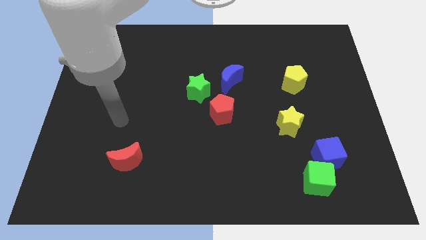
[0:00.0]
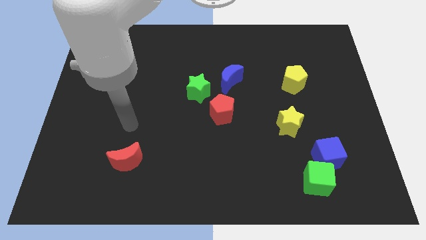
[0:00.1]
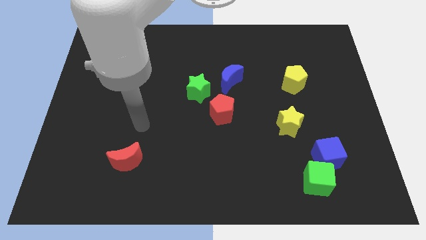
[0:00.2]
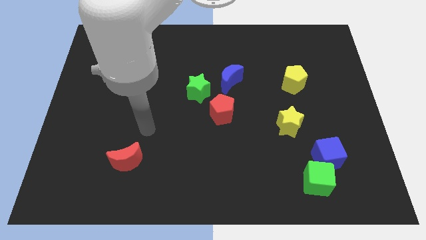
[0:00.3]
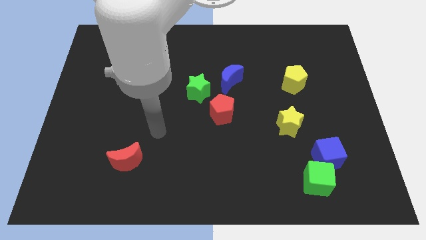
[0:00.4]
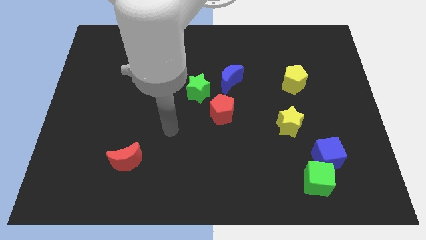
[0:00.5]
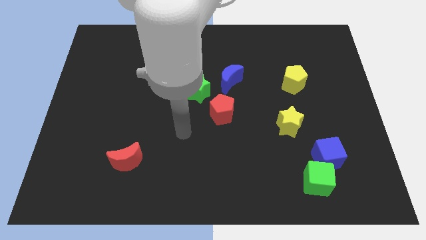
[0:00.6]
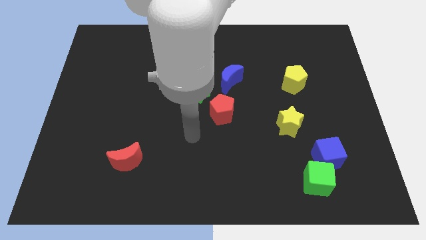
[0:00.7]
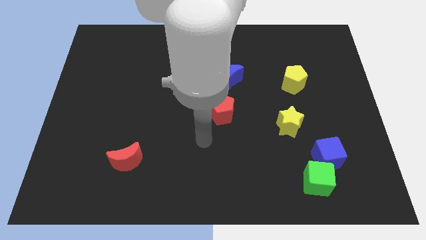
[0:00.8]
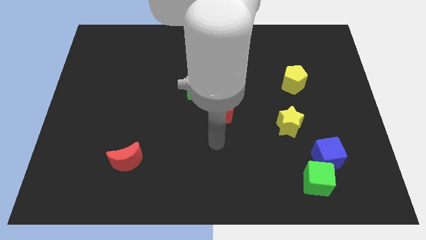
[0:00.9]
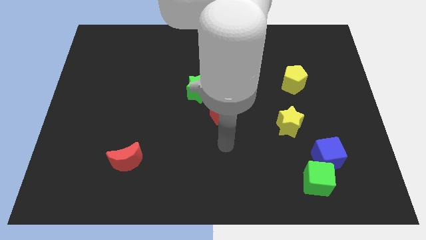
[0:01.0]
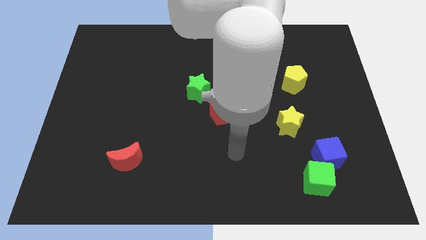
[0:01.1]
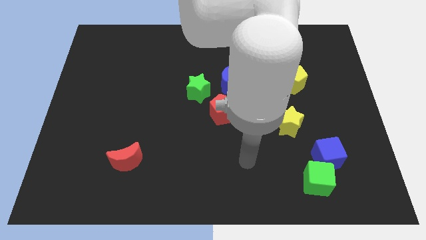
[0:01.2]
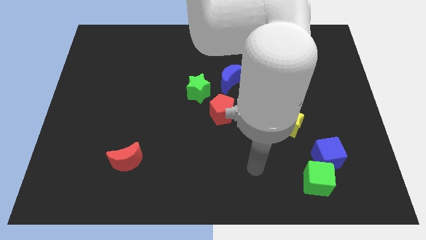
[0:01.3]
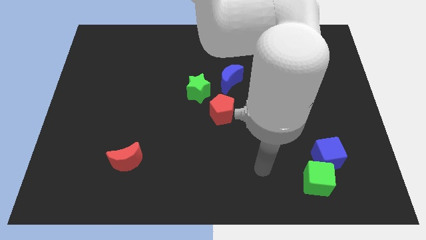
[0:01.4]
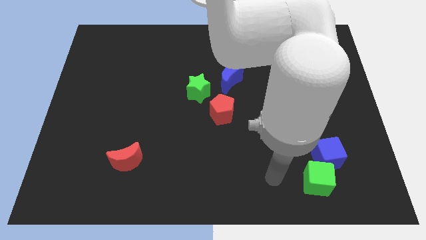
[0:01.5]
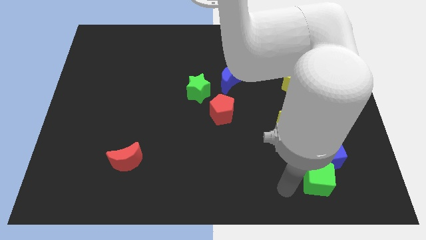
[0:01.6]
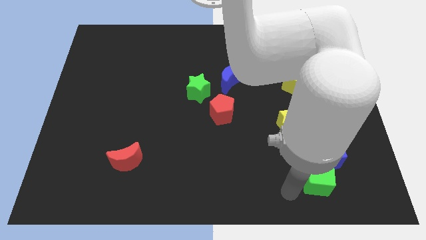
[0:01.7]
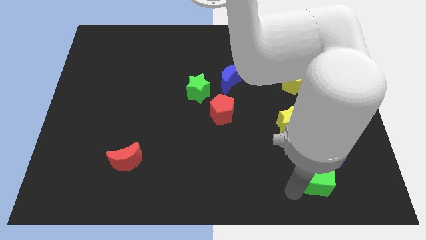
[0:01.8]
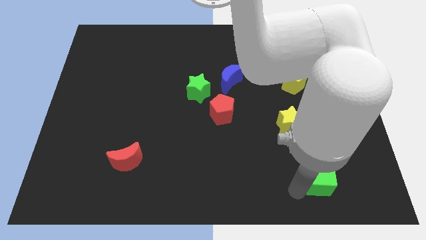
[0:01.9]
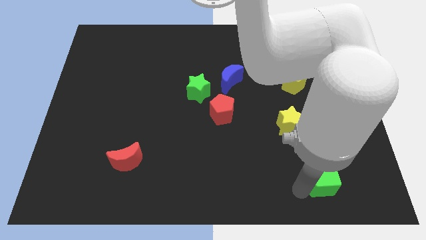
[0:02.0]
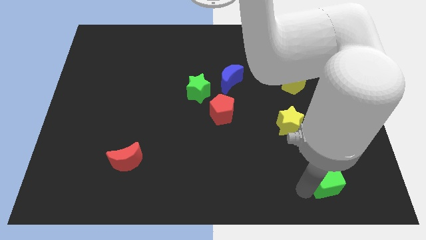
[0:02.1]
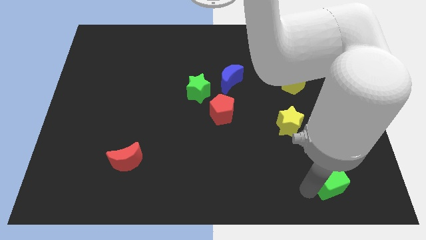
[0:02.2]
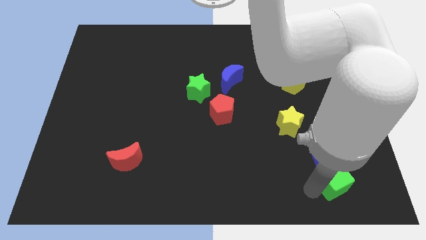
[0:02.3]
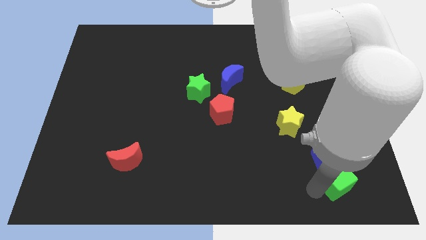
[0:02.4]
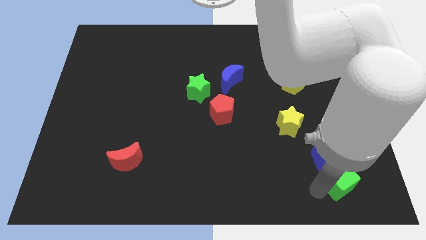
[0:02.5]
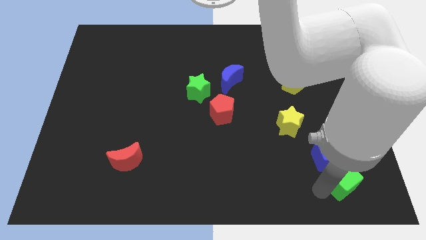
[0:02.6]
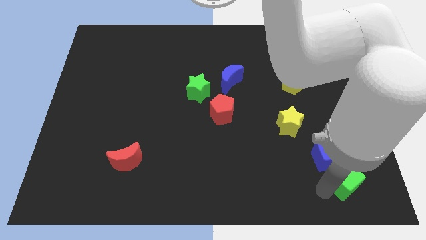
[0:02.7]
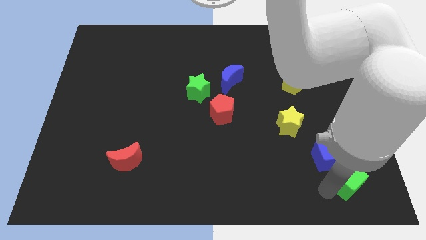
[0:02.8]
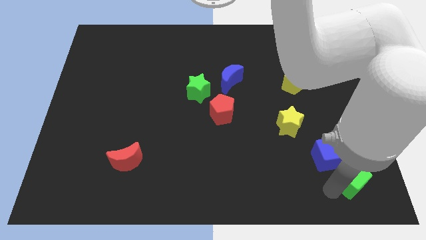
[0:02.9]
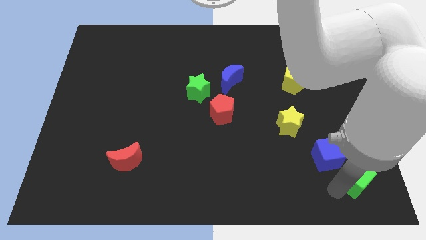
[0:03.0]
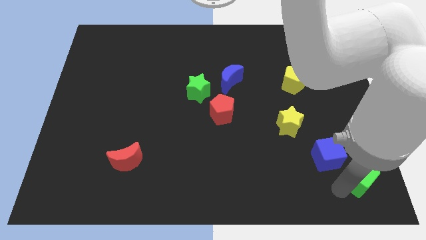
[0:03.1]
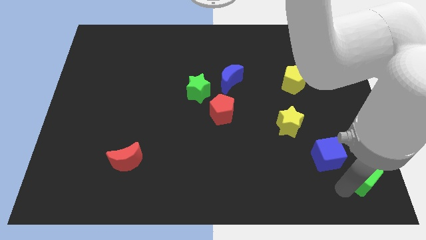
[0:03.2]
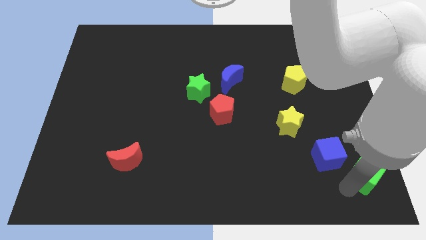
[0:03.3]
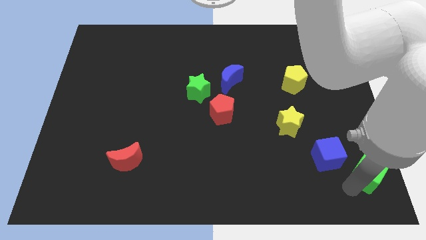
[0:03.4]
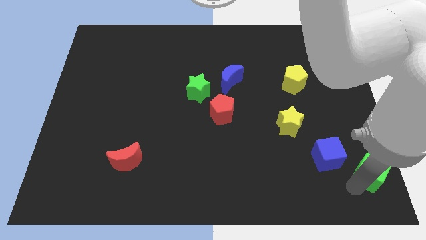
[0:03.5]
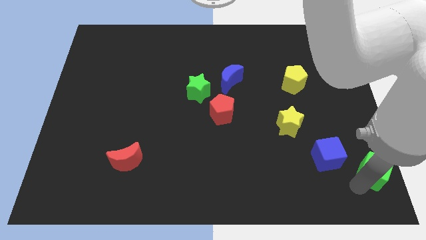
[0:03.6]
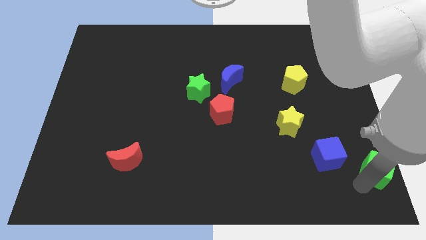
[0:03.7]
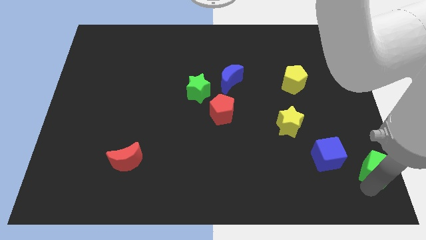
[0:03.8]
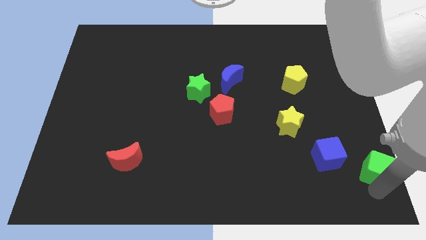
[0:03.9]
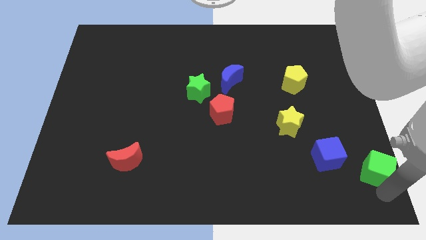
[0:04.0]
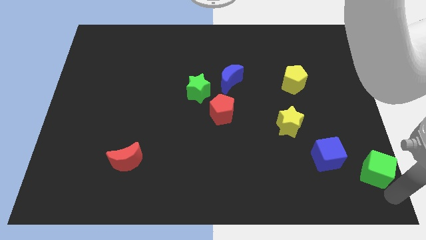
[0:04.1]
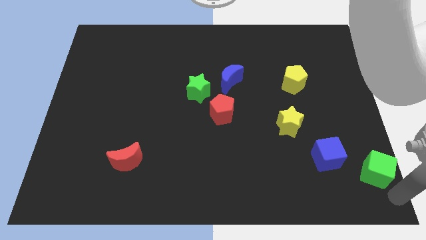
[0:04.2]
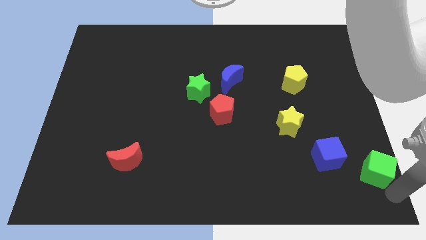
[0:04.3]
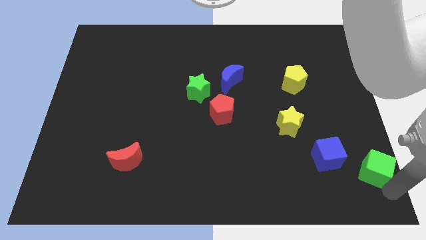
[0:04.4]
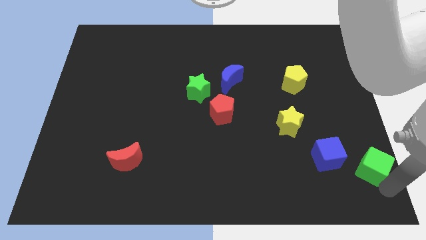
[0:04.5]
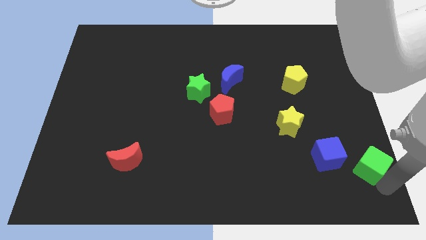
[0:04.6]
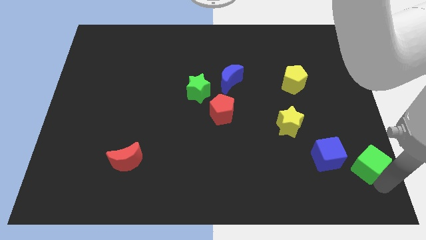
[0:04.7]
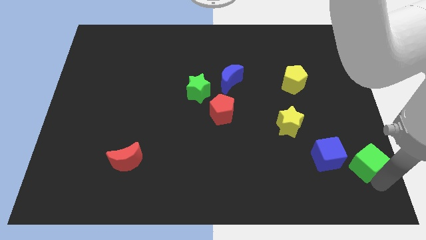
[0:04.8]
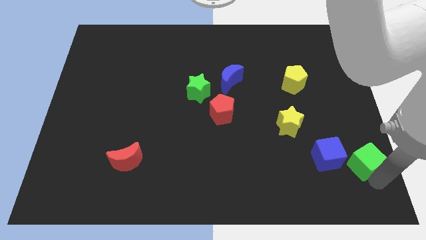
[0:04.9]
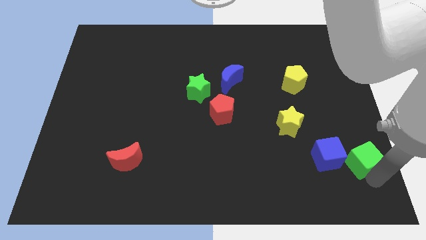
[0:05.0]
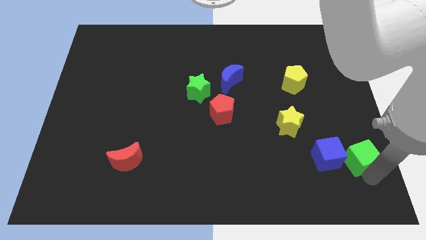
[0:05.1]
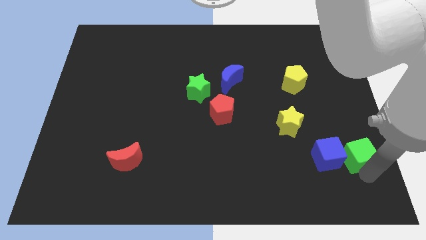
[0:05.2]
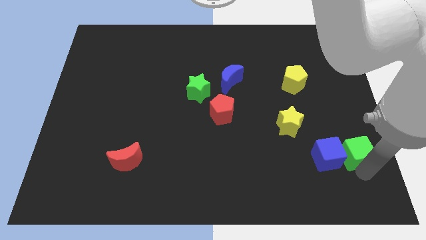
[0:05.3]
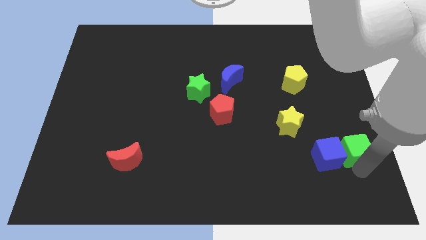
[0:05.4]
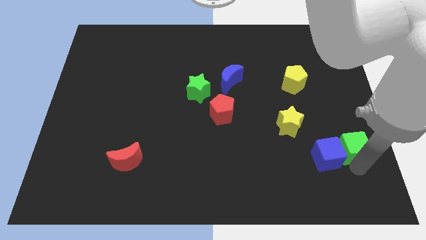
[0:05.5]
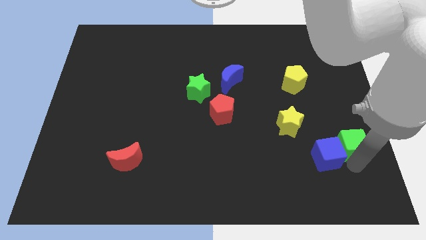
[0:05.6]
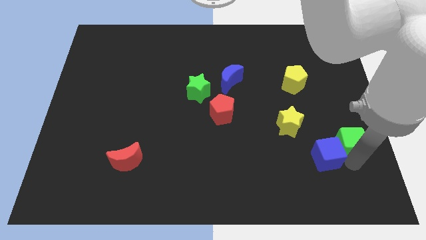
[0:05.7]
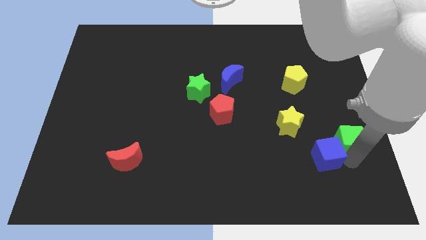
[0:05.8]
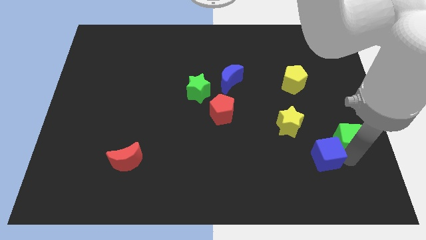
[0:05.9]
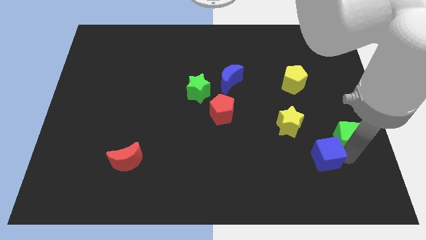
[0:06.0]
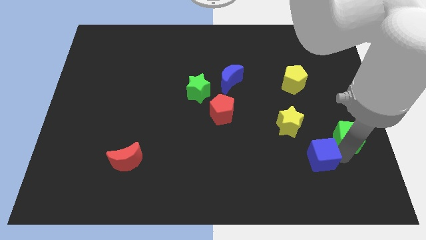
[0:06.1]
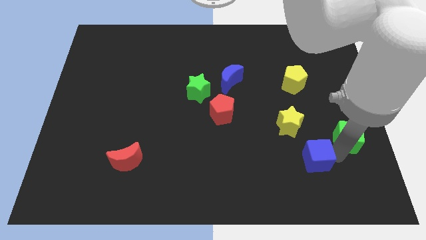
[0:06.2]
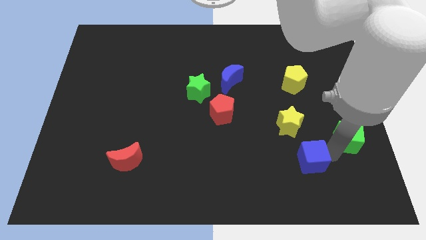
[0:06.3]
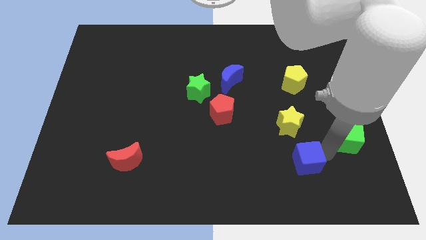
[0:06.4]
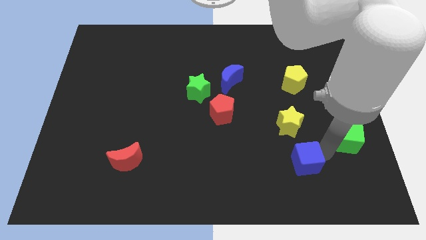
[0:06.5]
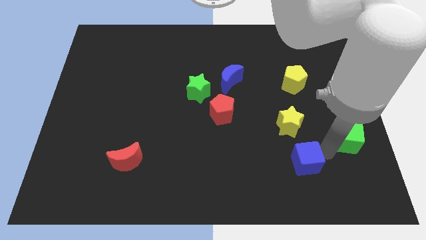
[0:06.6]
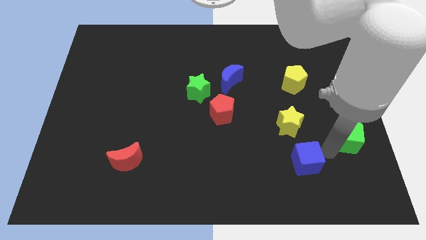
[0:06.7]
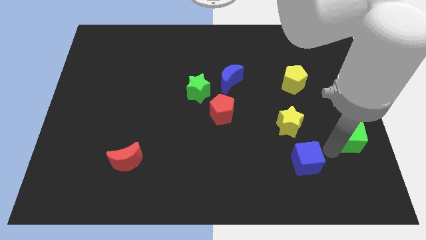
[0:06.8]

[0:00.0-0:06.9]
move the green cube to the right side
